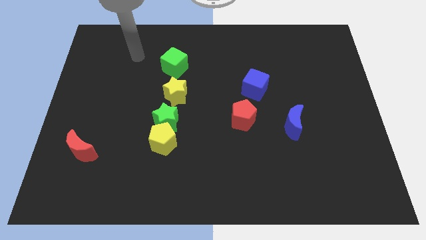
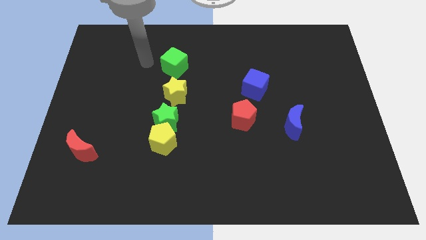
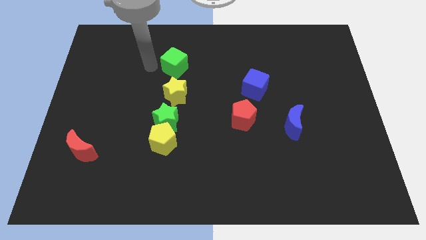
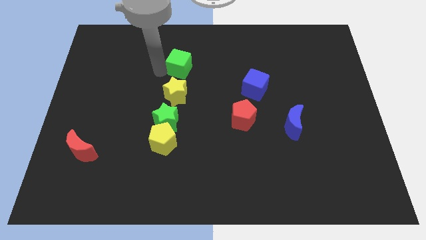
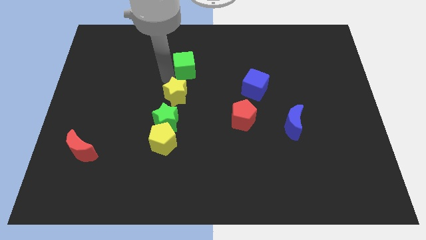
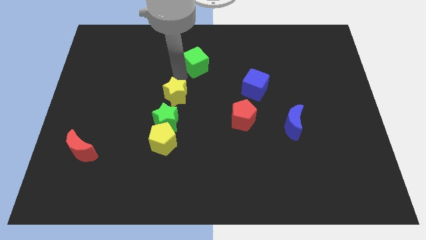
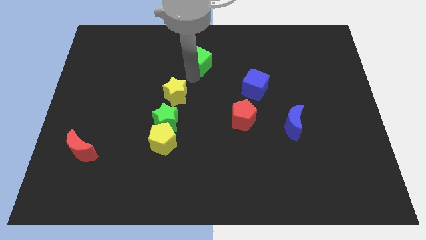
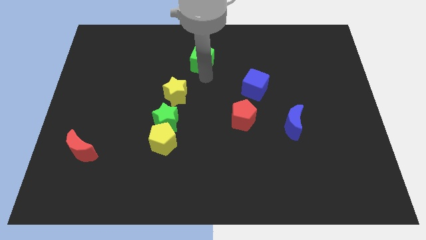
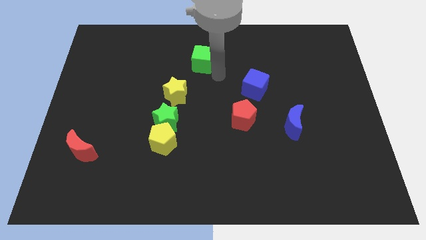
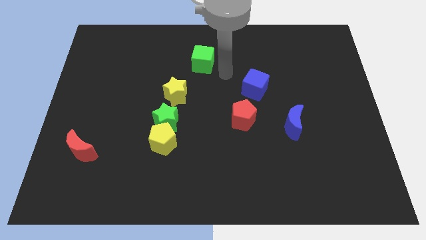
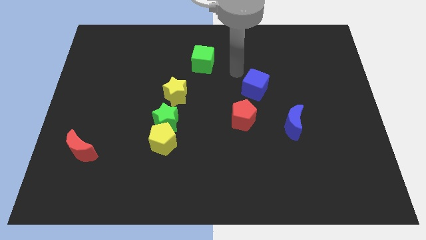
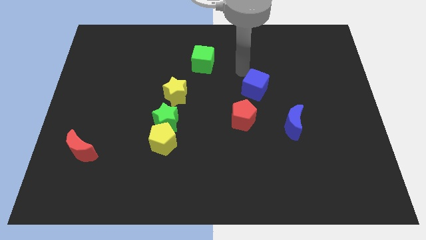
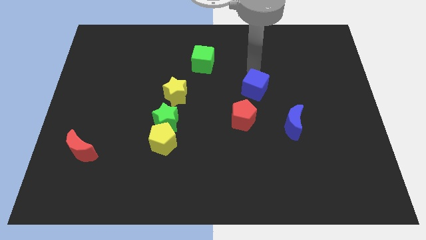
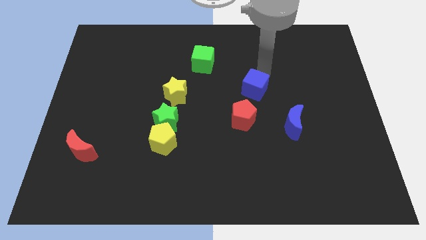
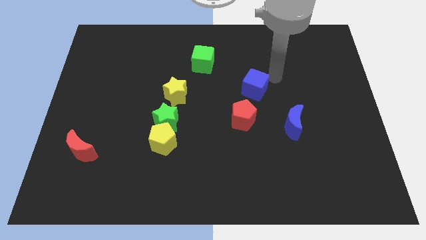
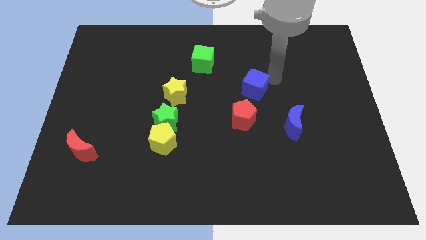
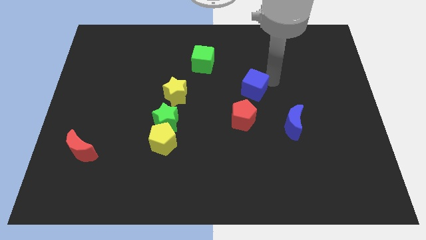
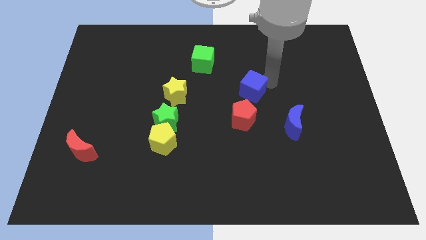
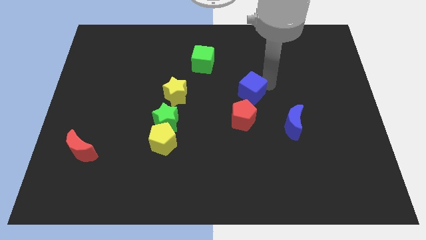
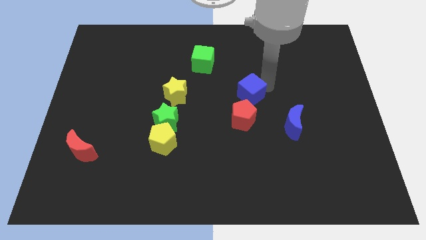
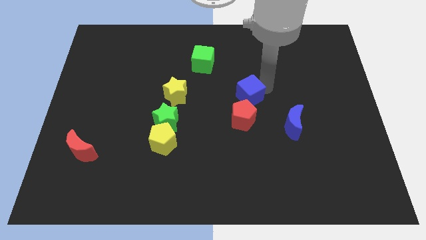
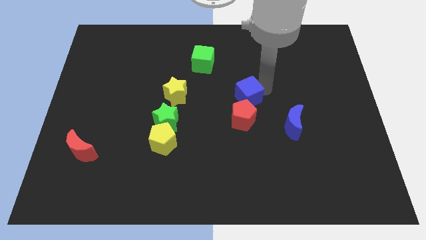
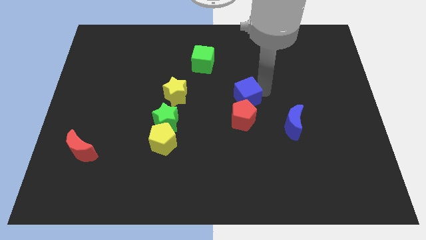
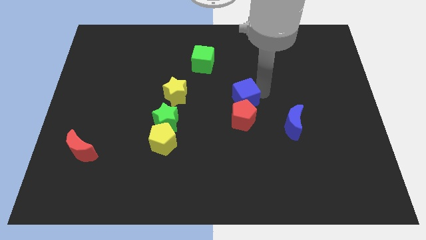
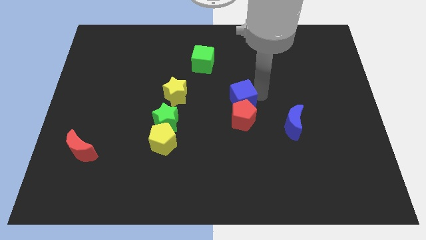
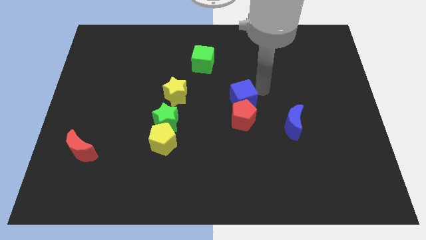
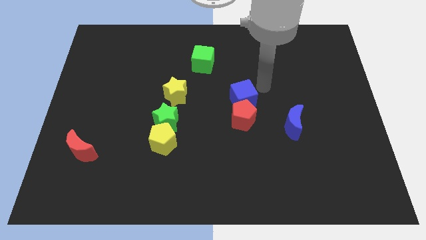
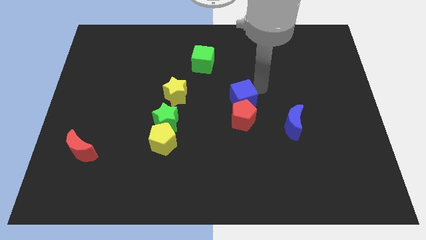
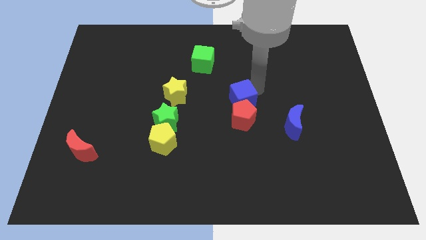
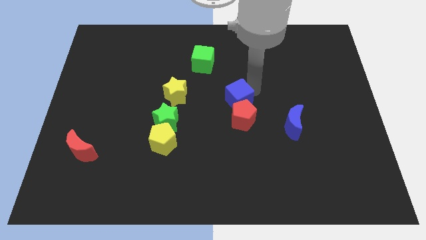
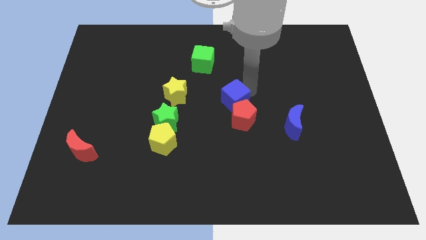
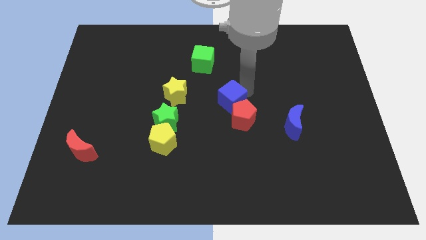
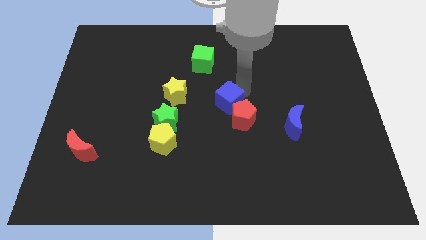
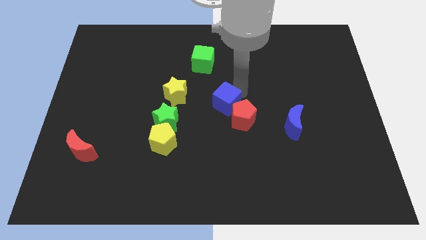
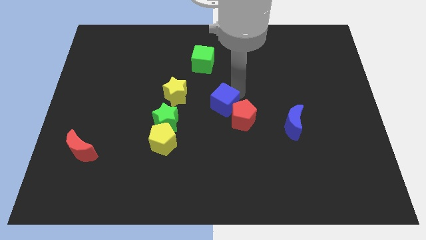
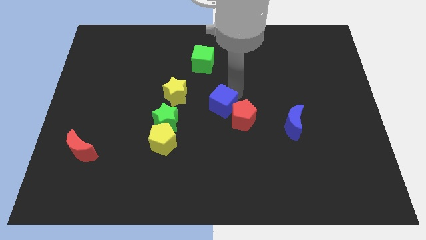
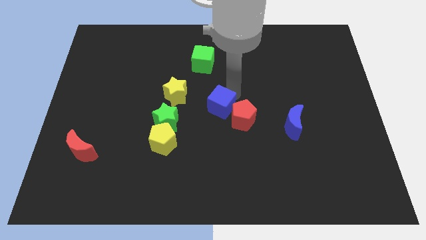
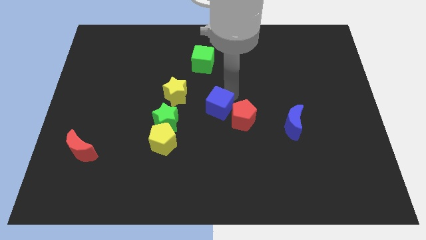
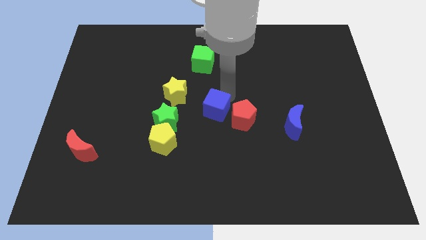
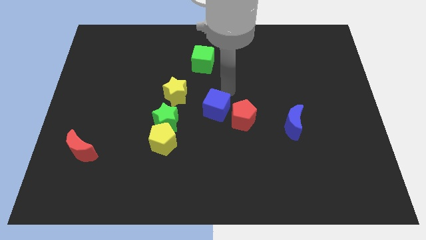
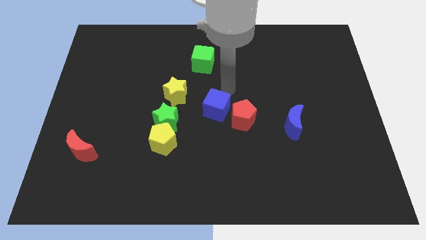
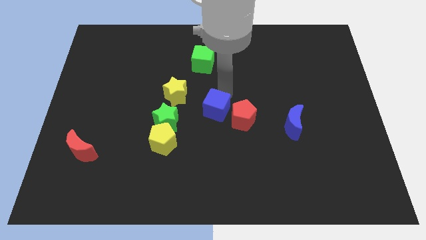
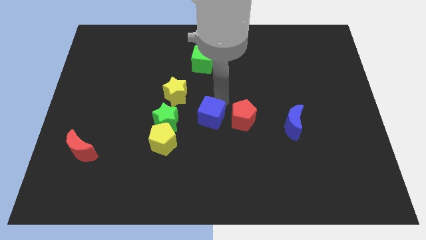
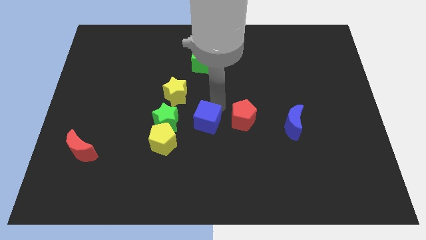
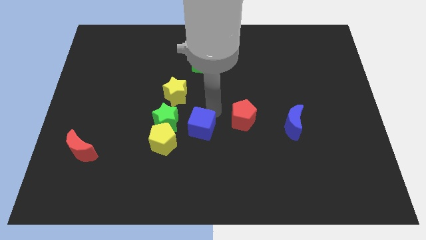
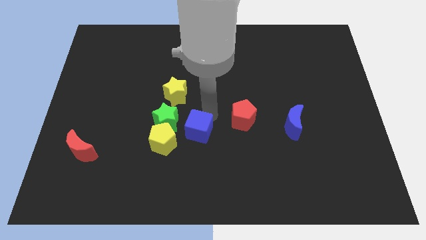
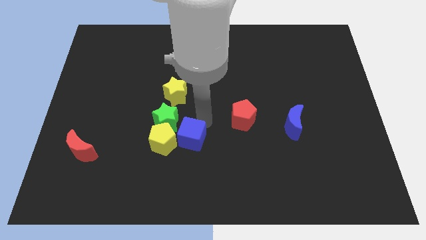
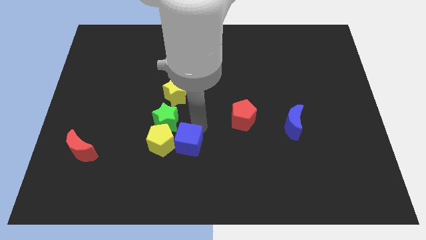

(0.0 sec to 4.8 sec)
slide the blue cube to the bottom right of the yellow pentagon

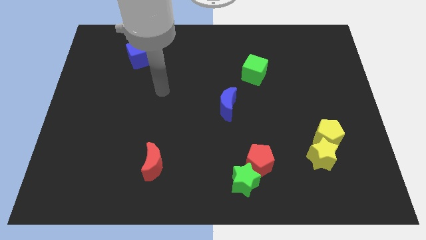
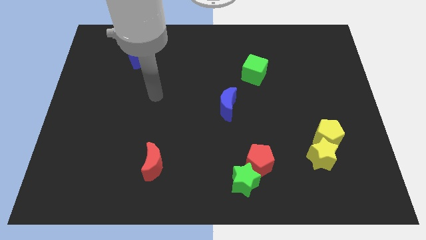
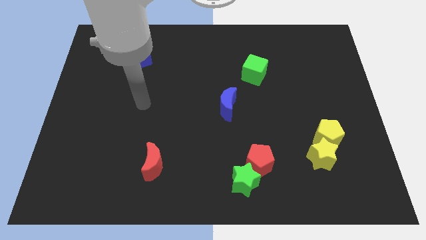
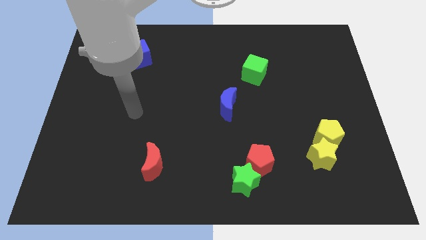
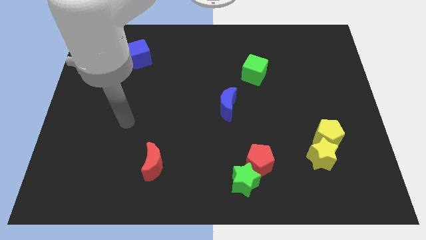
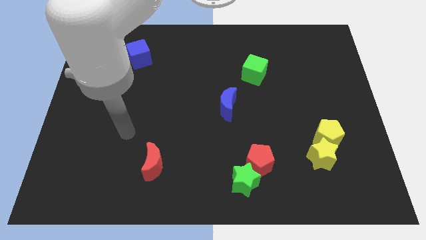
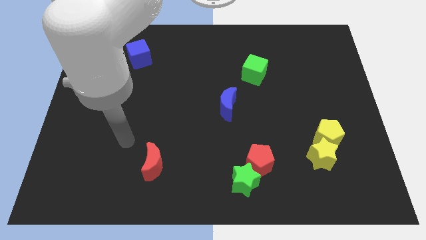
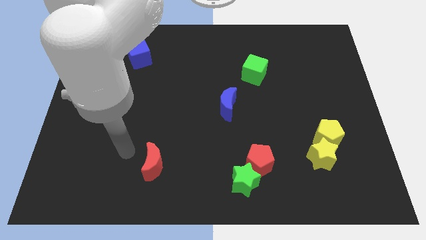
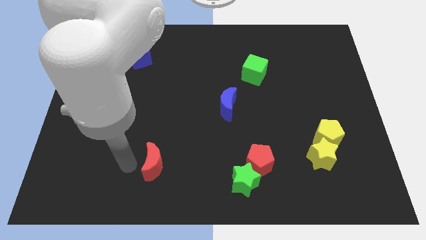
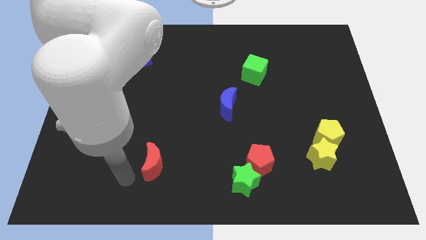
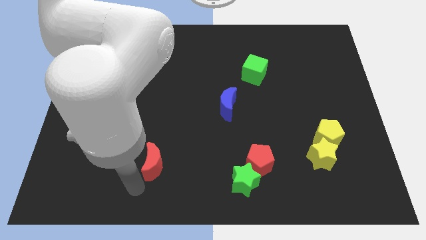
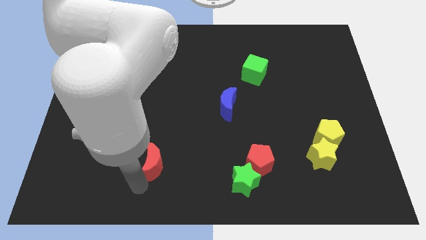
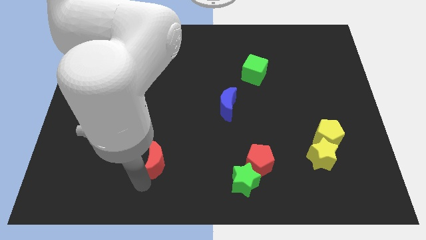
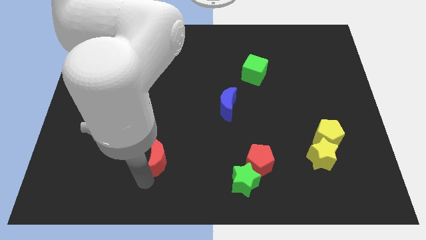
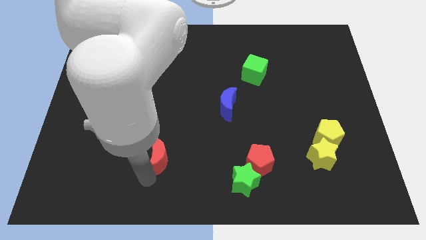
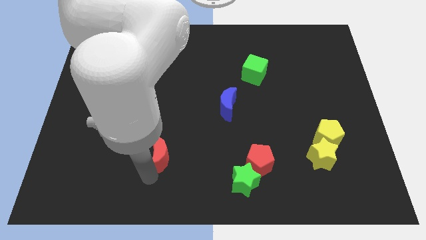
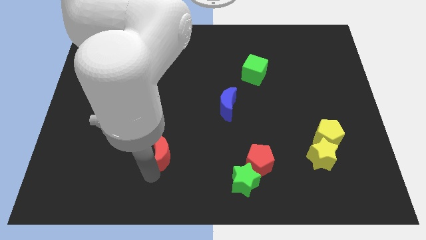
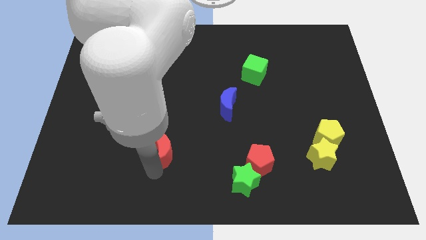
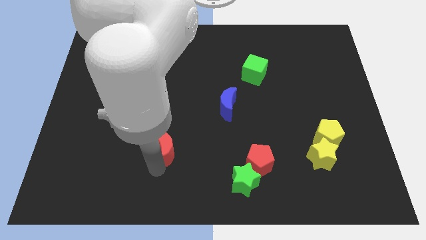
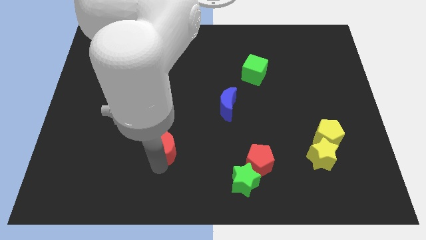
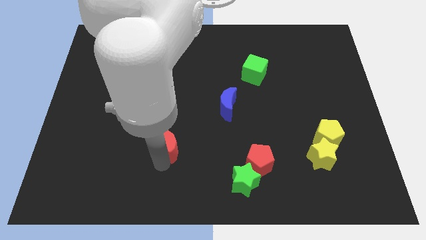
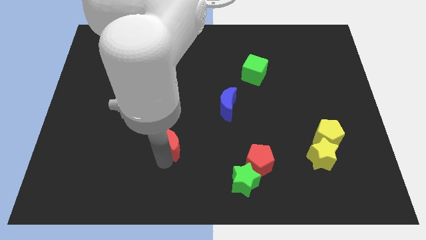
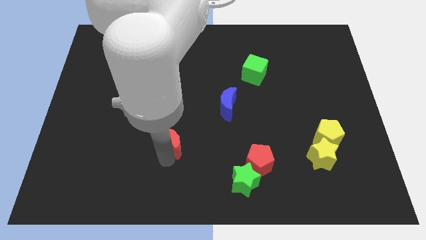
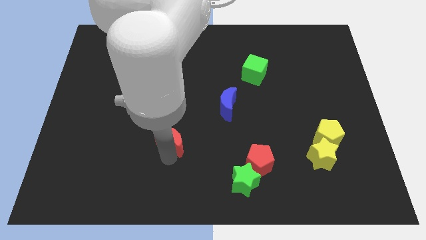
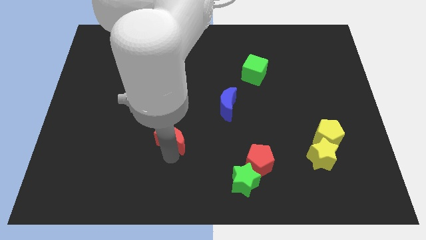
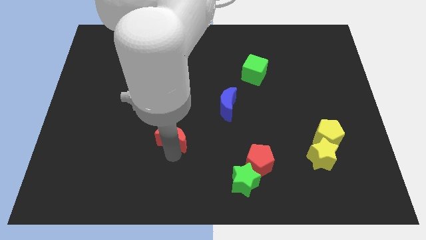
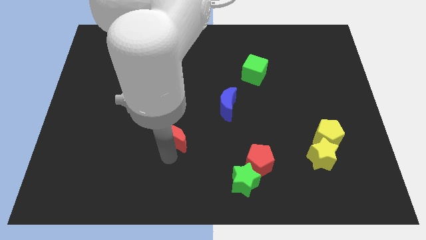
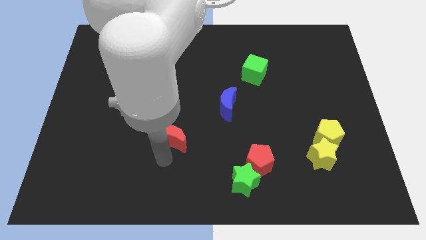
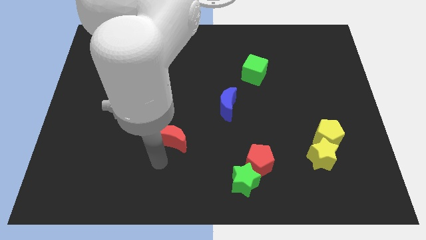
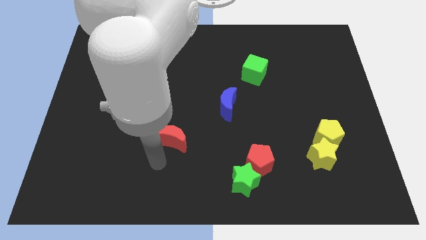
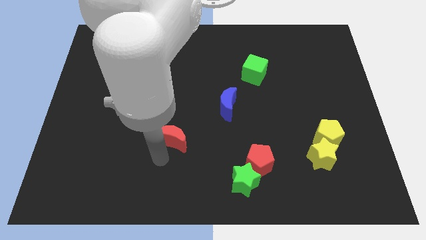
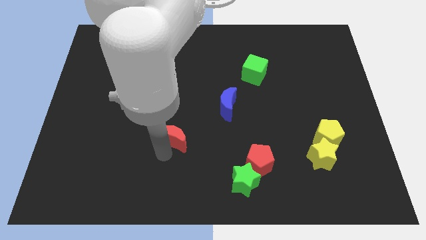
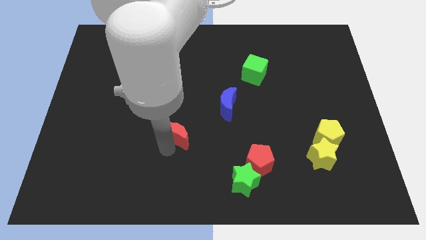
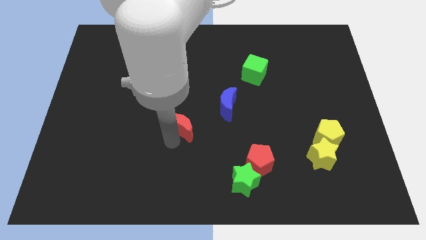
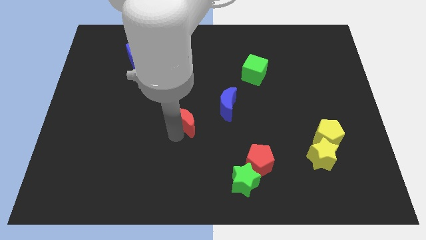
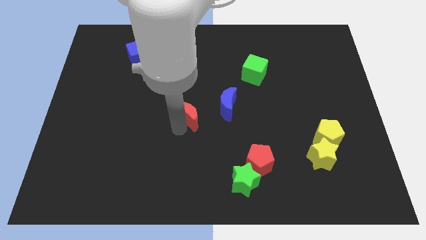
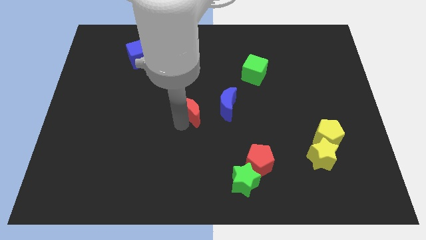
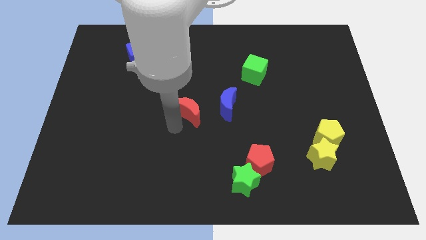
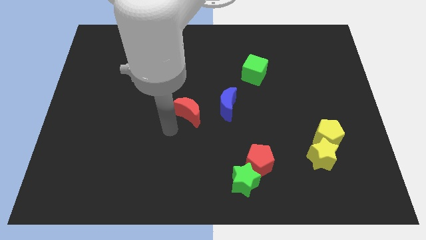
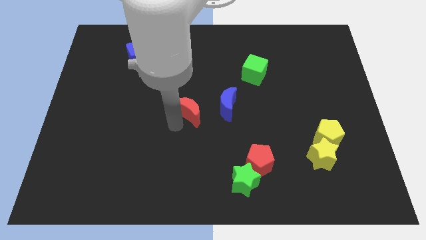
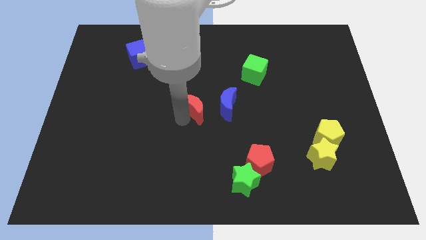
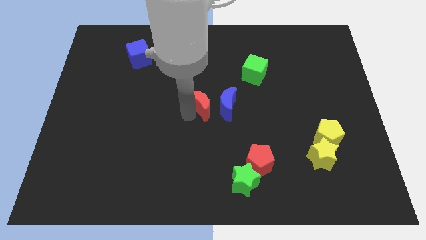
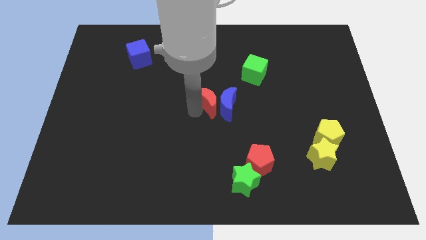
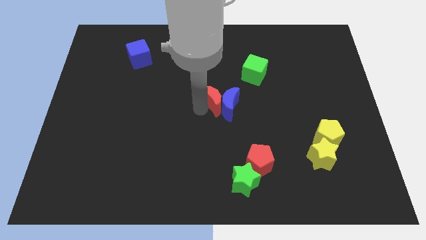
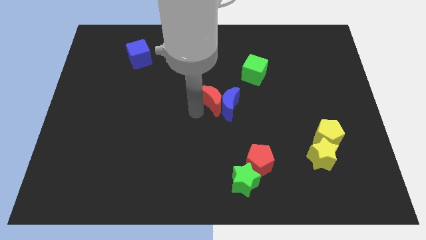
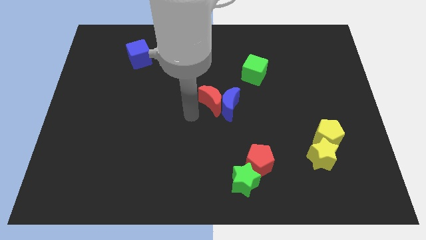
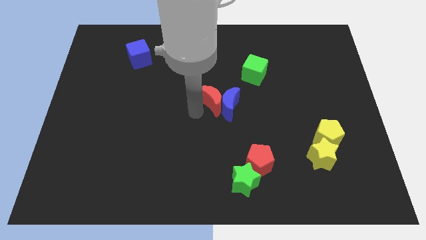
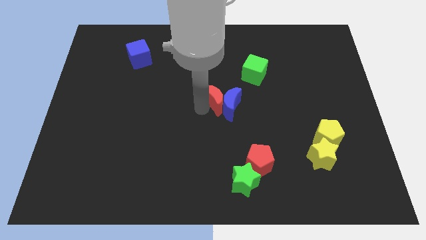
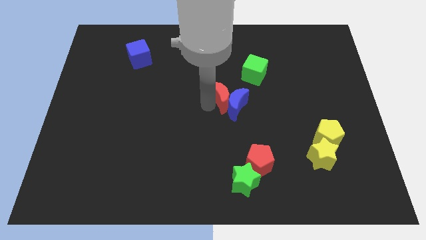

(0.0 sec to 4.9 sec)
push the red moon diagonally down and to the left of the green cube
